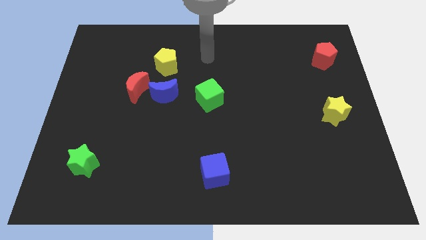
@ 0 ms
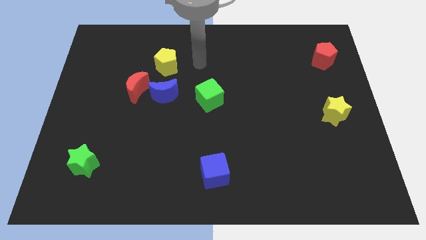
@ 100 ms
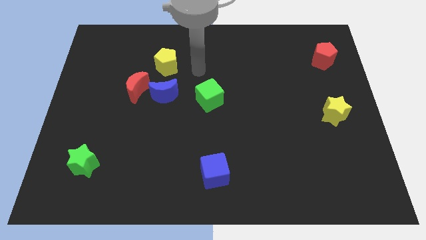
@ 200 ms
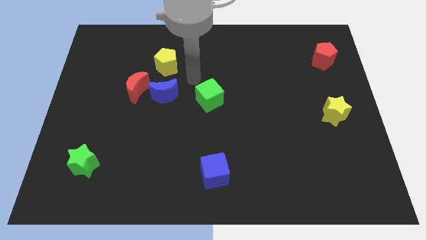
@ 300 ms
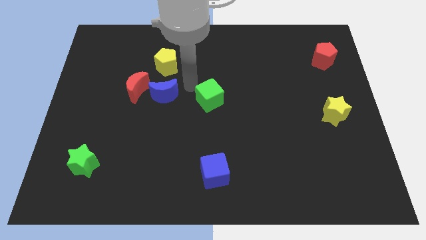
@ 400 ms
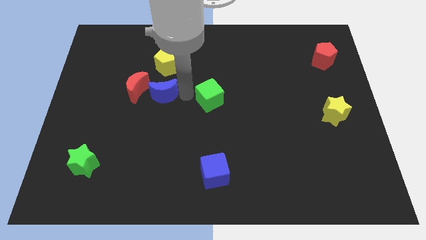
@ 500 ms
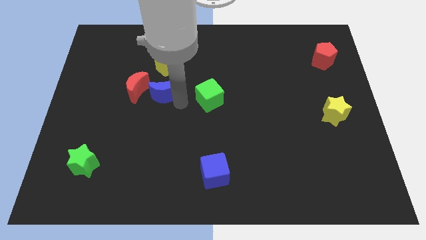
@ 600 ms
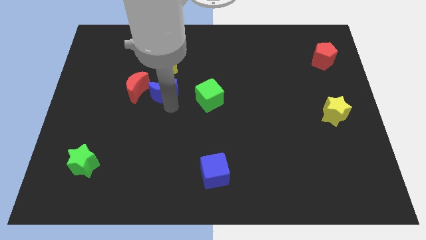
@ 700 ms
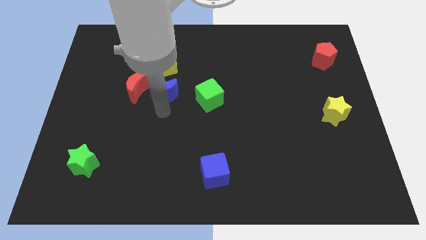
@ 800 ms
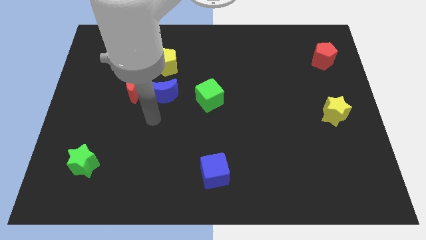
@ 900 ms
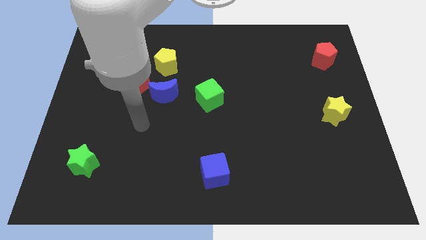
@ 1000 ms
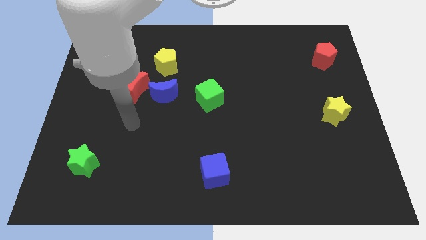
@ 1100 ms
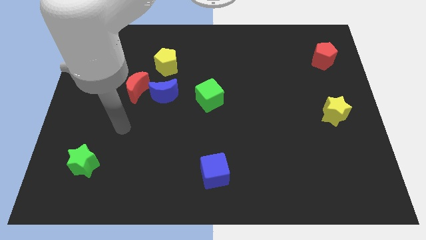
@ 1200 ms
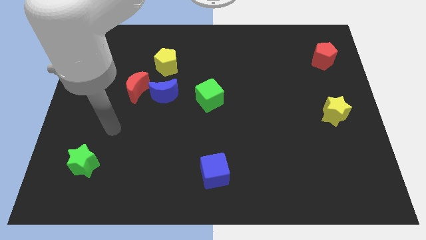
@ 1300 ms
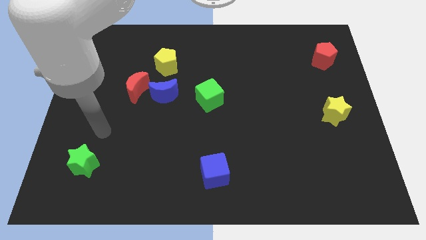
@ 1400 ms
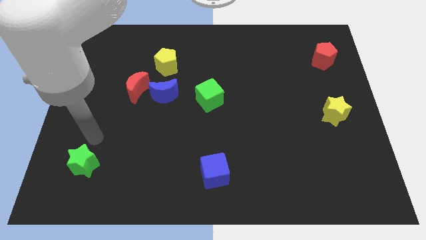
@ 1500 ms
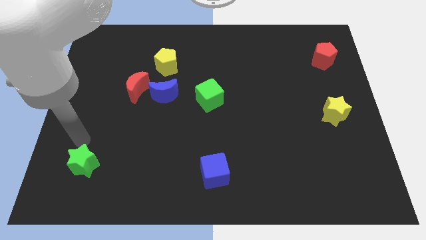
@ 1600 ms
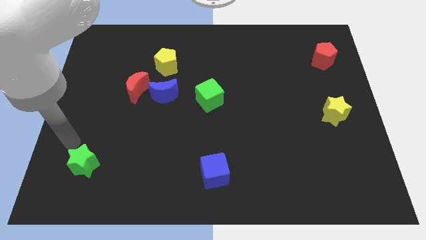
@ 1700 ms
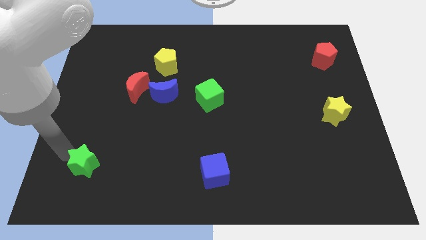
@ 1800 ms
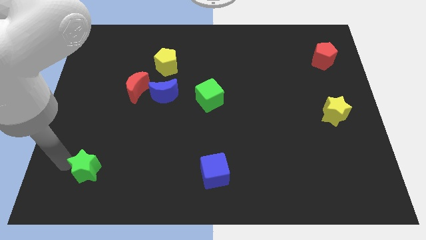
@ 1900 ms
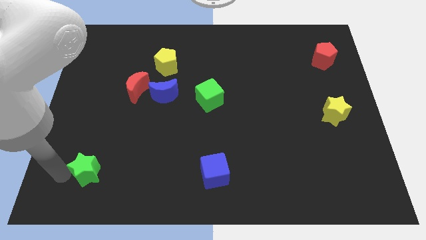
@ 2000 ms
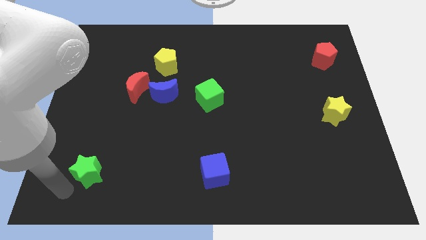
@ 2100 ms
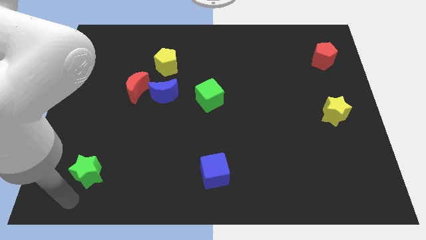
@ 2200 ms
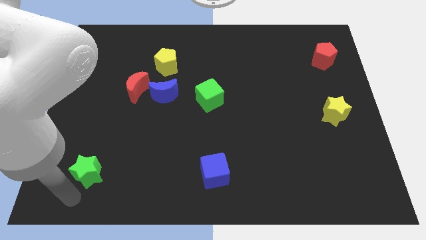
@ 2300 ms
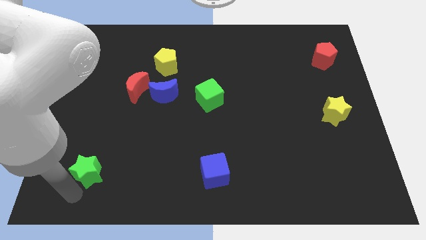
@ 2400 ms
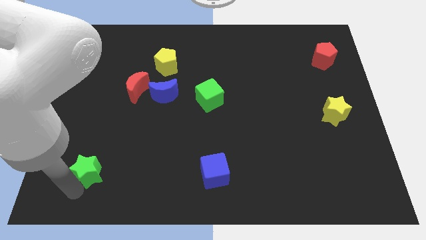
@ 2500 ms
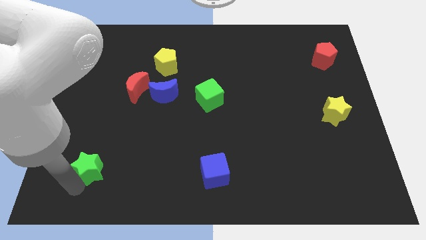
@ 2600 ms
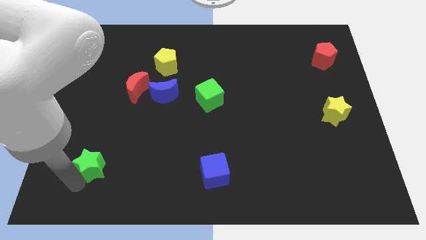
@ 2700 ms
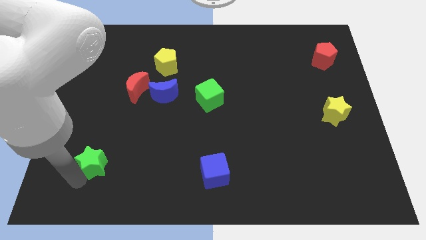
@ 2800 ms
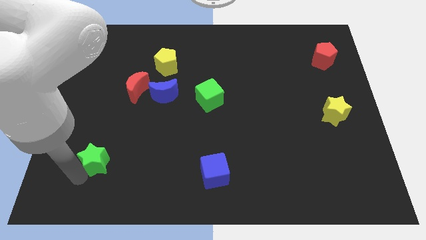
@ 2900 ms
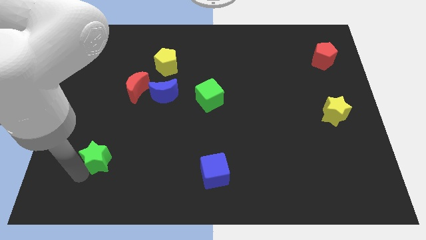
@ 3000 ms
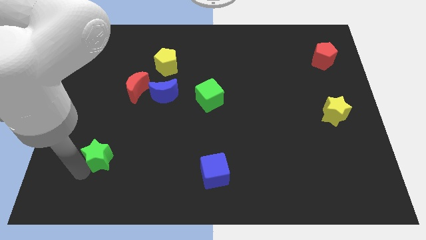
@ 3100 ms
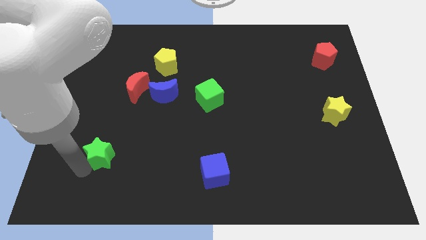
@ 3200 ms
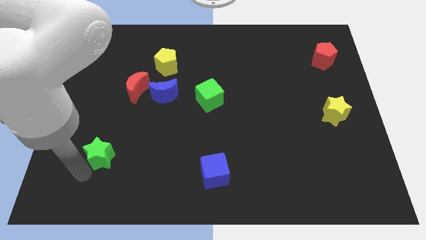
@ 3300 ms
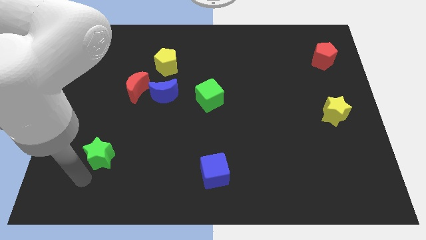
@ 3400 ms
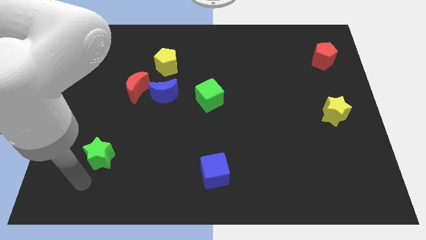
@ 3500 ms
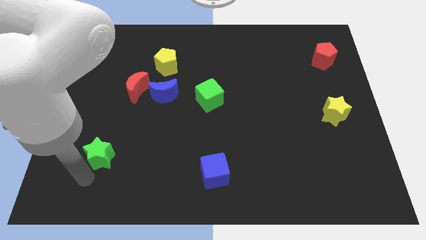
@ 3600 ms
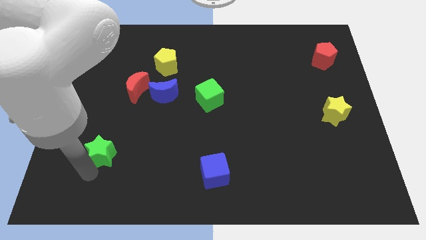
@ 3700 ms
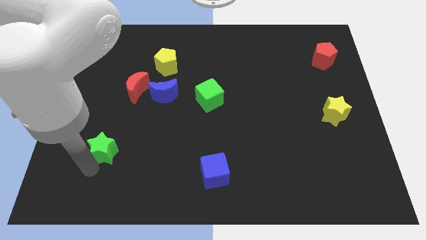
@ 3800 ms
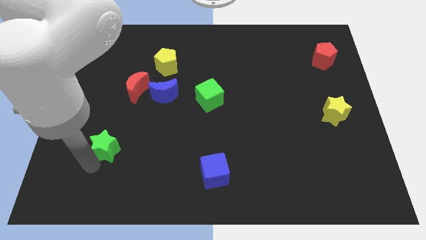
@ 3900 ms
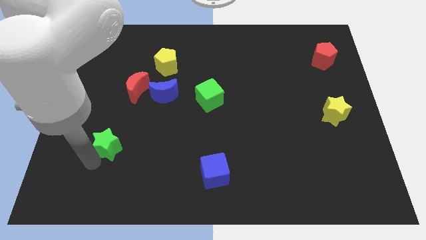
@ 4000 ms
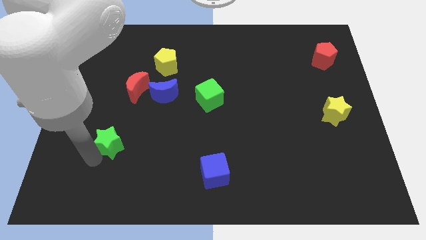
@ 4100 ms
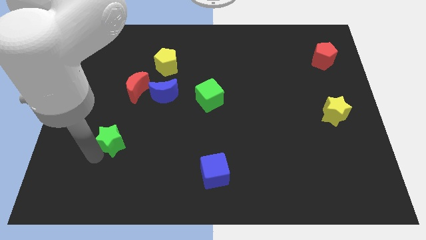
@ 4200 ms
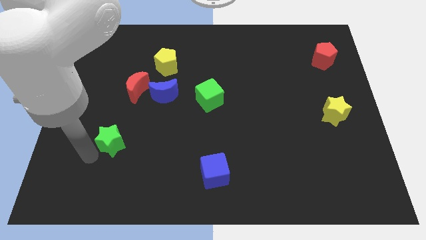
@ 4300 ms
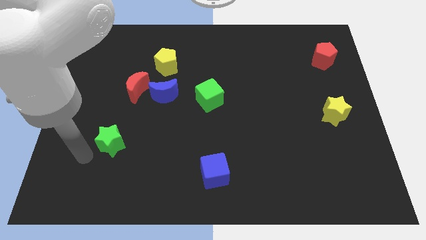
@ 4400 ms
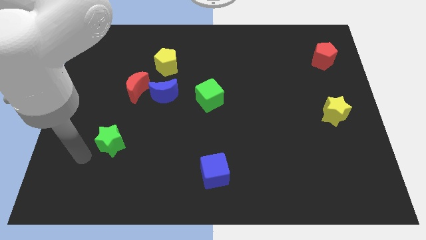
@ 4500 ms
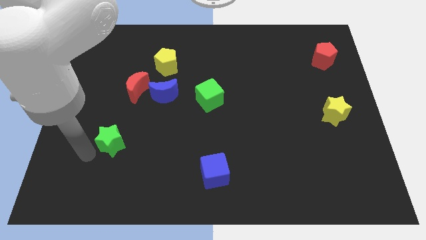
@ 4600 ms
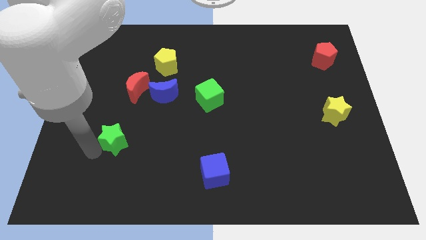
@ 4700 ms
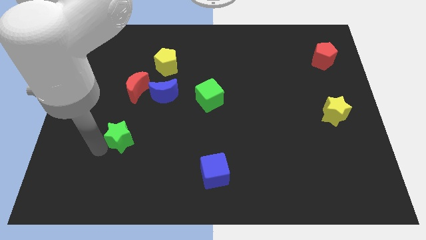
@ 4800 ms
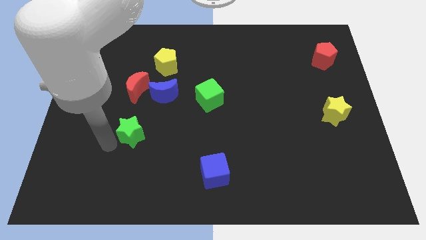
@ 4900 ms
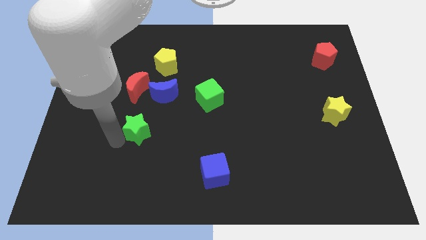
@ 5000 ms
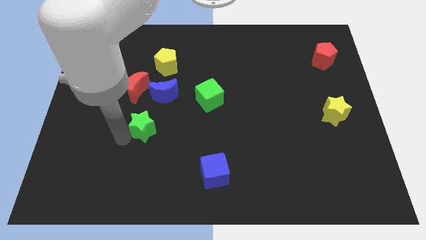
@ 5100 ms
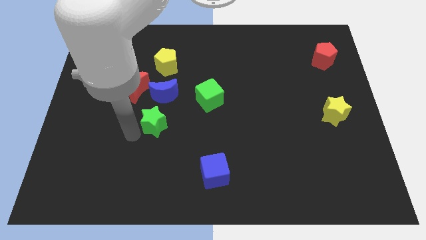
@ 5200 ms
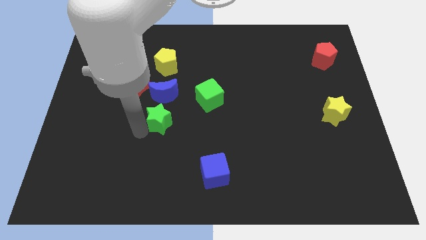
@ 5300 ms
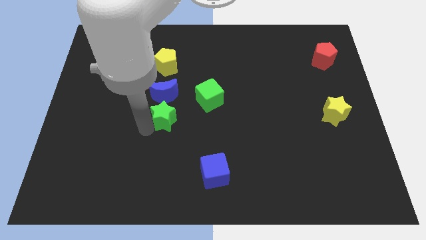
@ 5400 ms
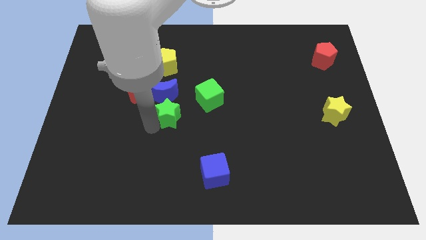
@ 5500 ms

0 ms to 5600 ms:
slide the green star upwards and then to the right

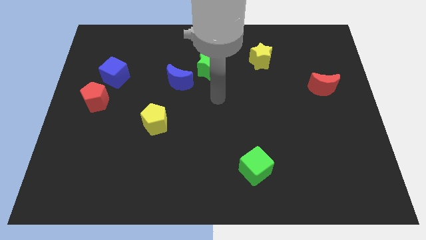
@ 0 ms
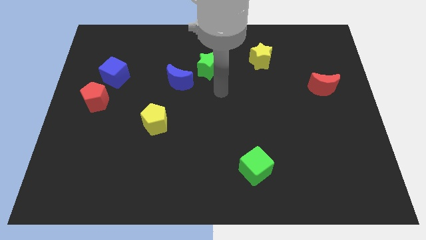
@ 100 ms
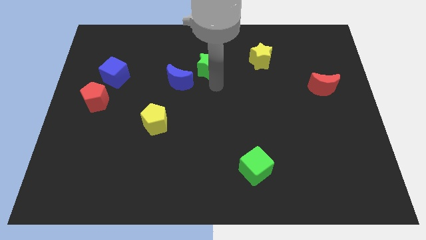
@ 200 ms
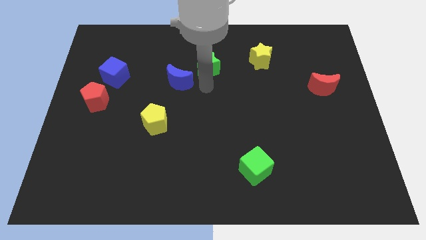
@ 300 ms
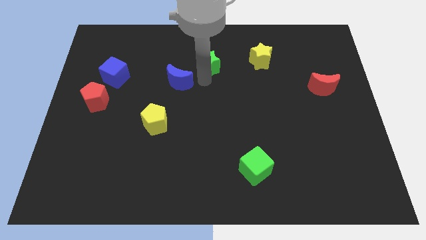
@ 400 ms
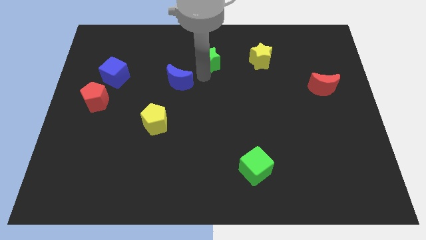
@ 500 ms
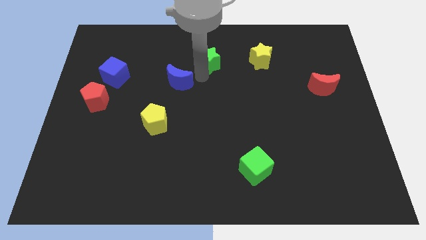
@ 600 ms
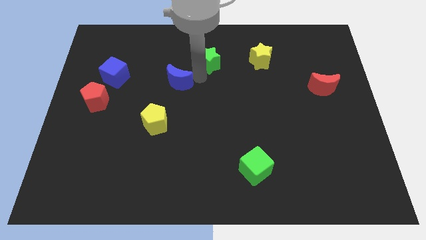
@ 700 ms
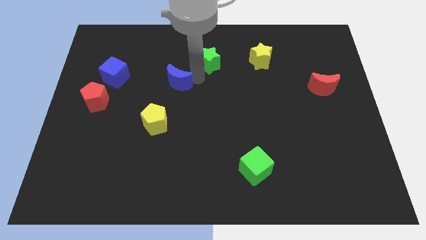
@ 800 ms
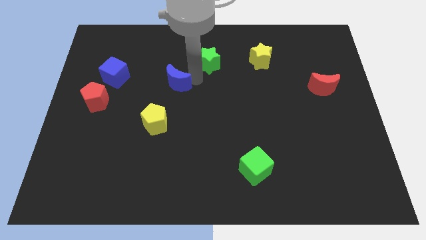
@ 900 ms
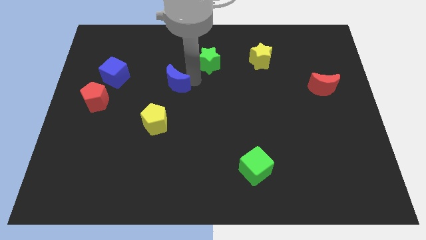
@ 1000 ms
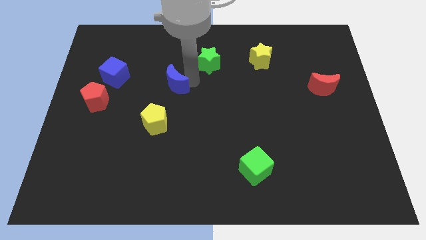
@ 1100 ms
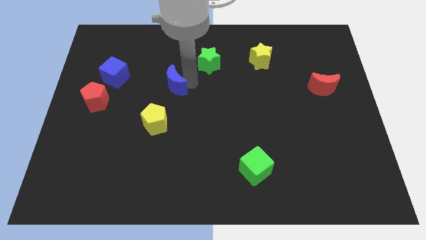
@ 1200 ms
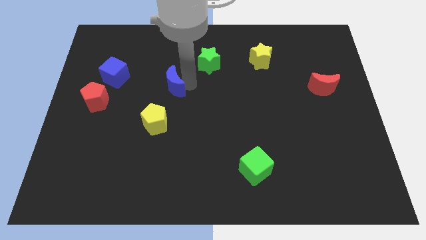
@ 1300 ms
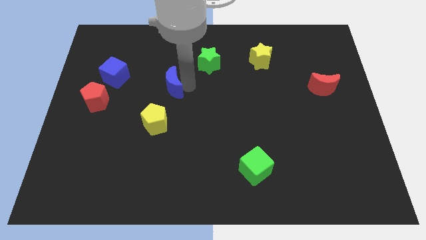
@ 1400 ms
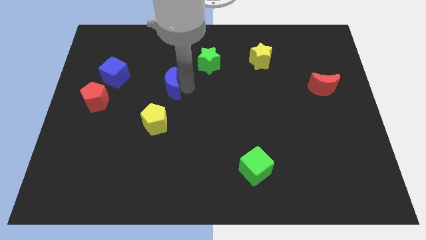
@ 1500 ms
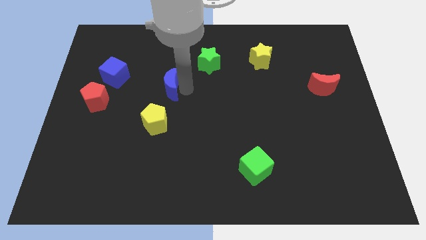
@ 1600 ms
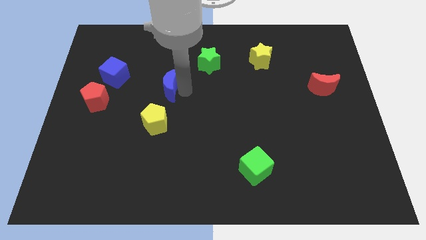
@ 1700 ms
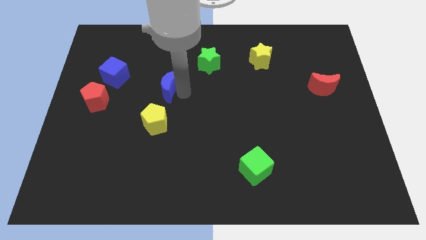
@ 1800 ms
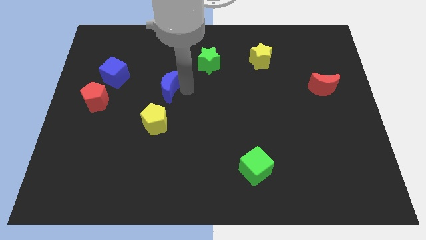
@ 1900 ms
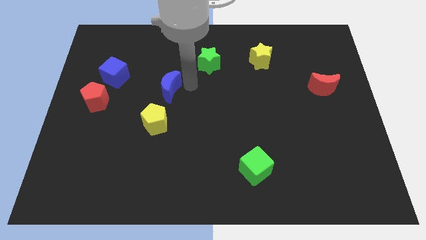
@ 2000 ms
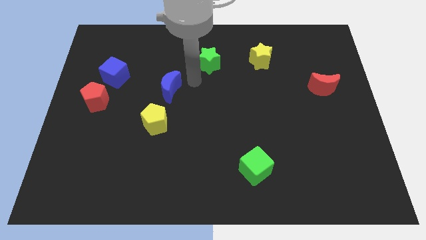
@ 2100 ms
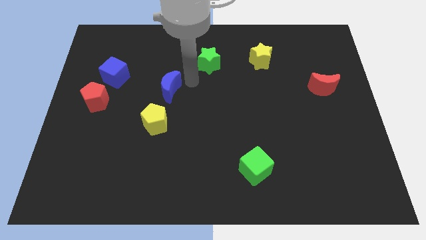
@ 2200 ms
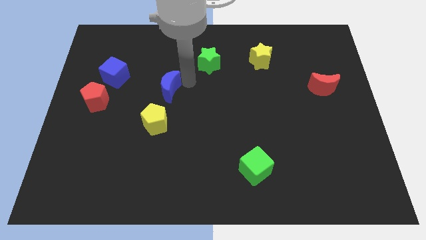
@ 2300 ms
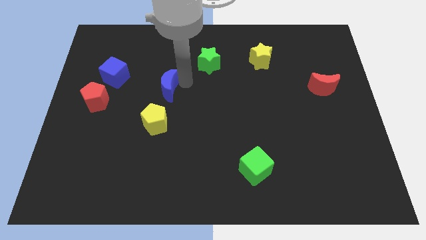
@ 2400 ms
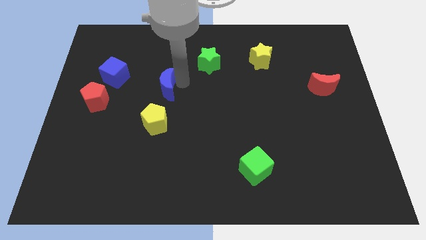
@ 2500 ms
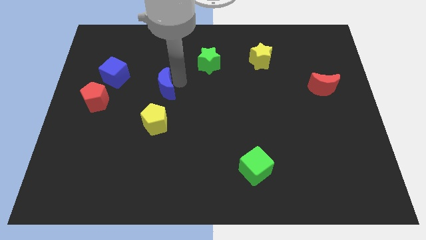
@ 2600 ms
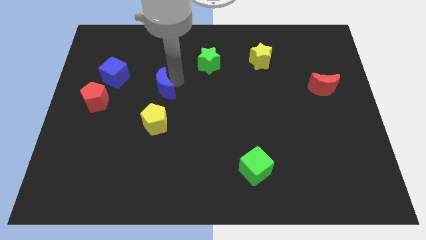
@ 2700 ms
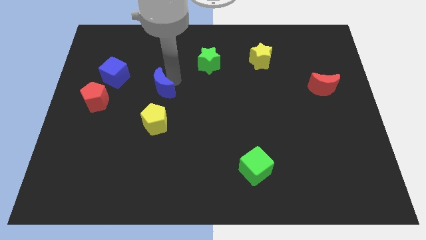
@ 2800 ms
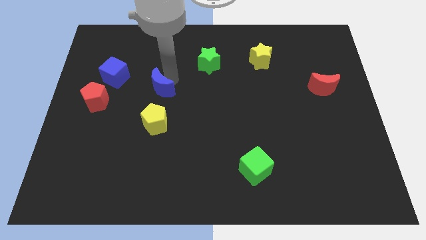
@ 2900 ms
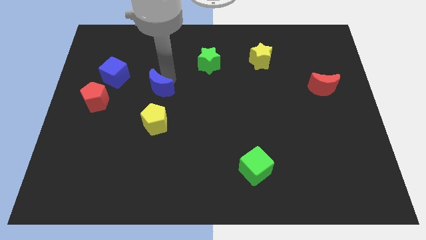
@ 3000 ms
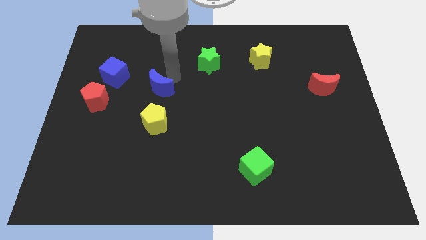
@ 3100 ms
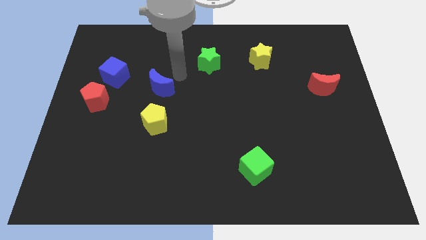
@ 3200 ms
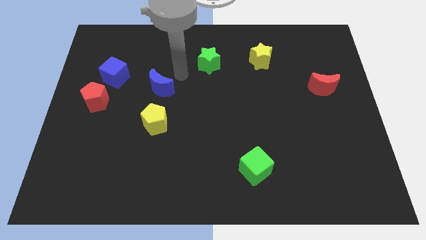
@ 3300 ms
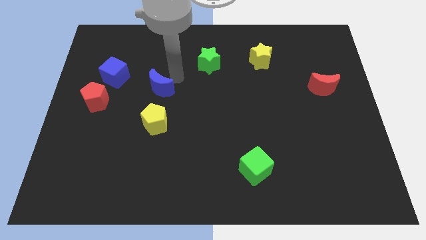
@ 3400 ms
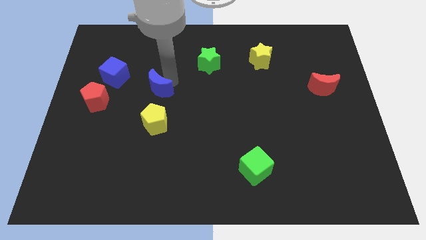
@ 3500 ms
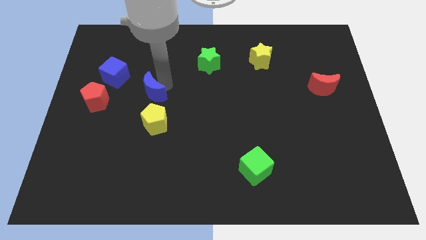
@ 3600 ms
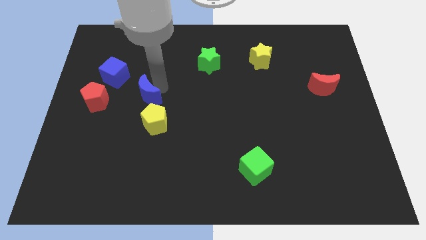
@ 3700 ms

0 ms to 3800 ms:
slide the blue moon downwards and then left slightly
